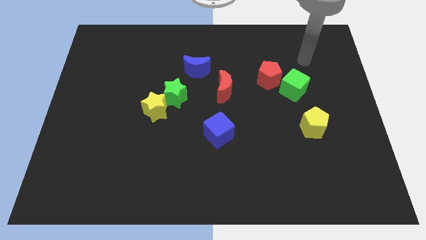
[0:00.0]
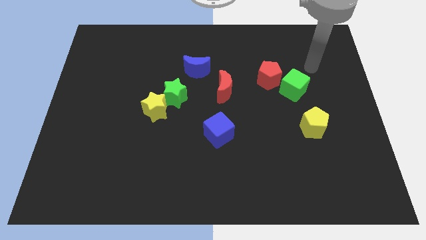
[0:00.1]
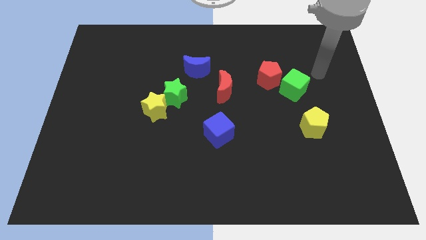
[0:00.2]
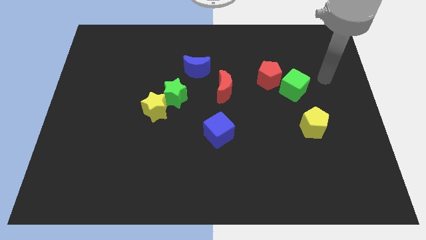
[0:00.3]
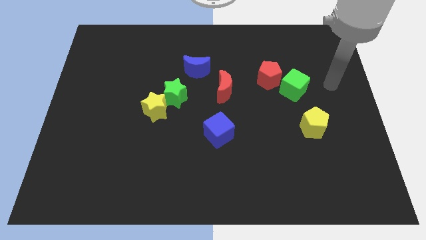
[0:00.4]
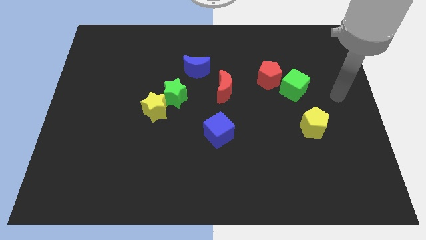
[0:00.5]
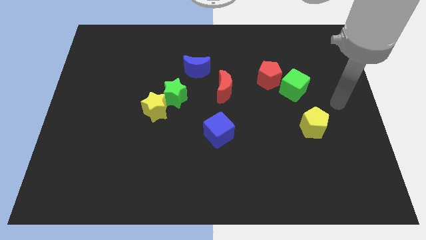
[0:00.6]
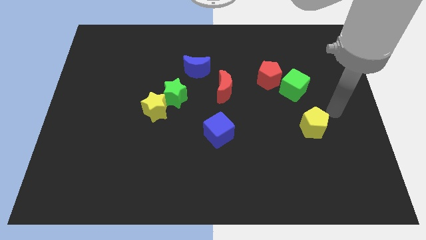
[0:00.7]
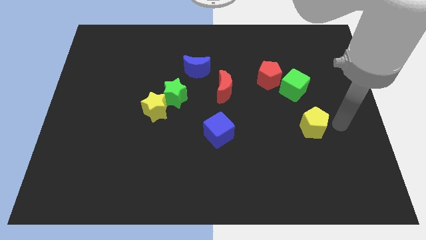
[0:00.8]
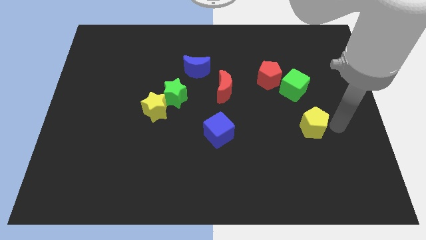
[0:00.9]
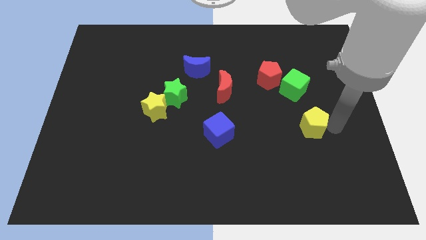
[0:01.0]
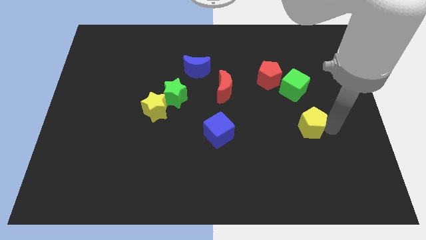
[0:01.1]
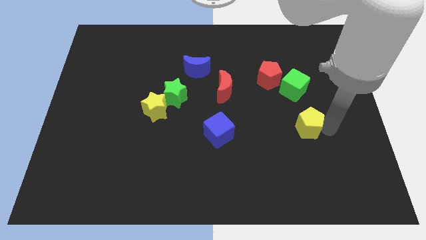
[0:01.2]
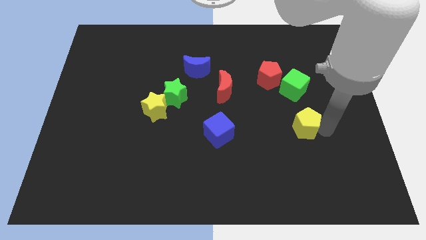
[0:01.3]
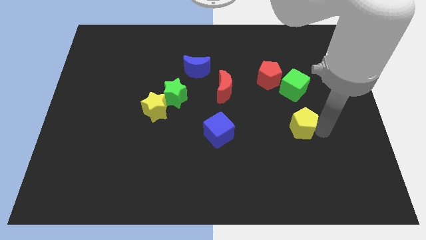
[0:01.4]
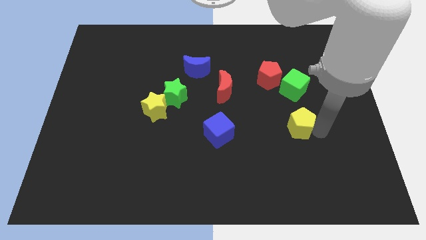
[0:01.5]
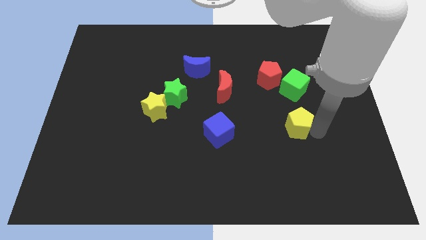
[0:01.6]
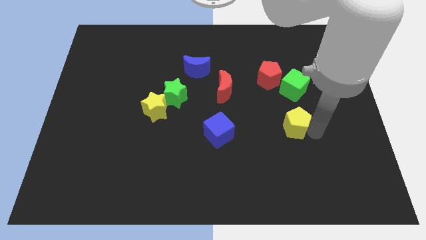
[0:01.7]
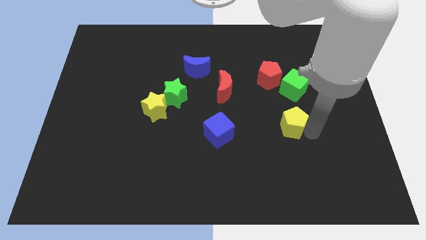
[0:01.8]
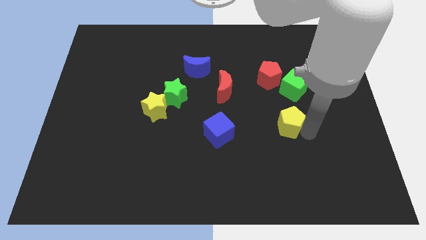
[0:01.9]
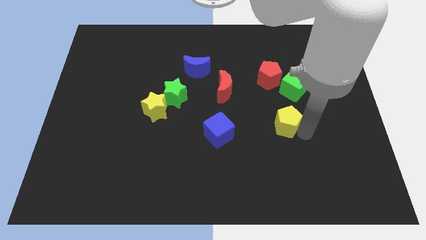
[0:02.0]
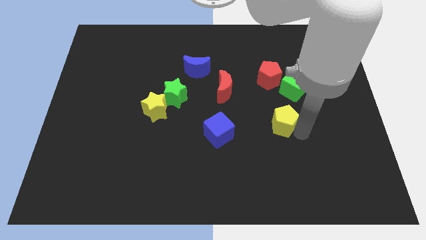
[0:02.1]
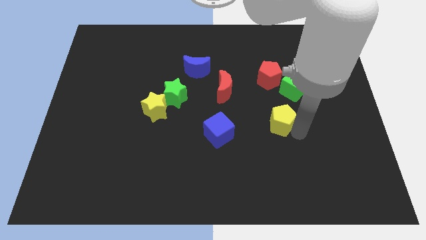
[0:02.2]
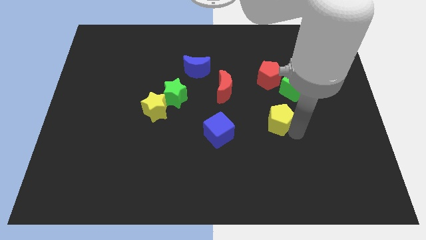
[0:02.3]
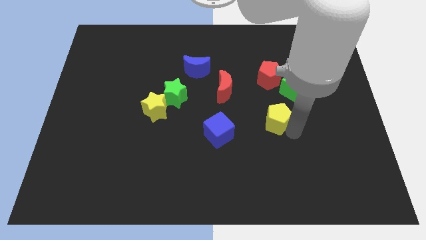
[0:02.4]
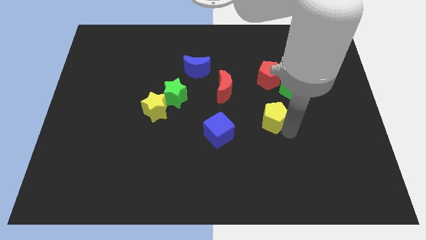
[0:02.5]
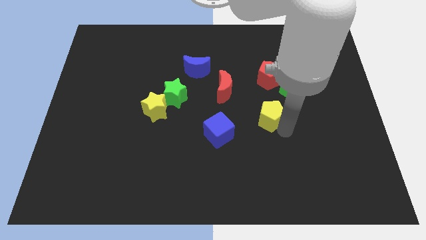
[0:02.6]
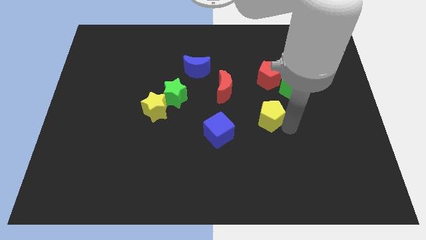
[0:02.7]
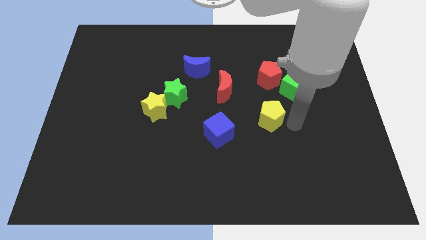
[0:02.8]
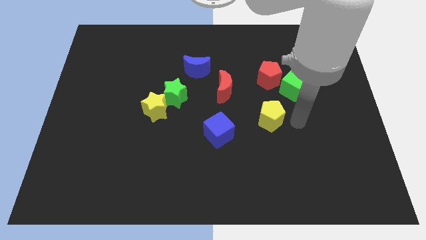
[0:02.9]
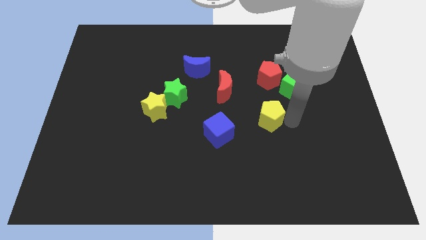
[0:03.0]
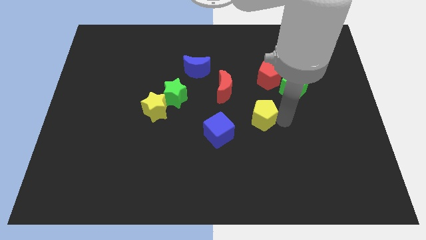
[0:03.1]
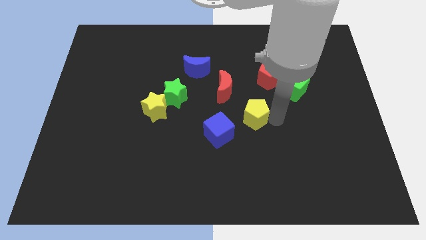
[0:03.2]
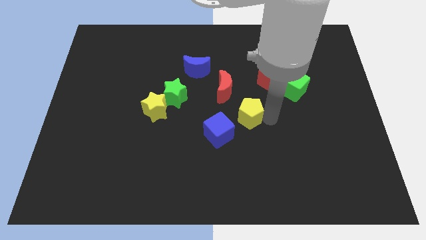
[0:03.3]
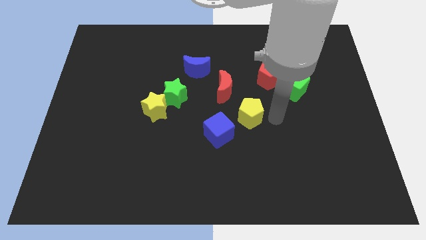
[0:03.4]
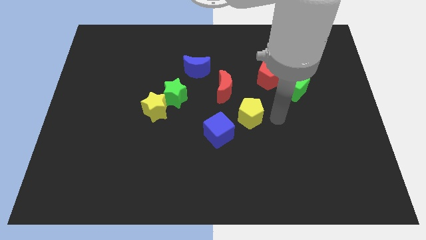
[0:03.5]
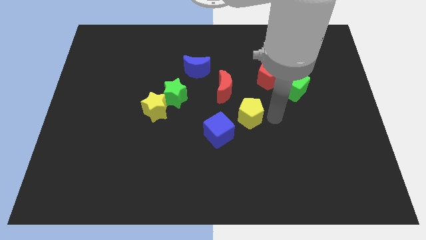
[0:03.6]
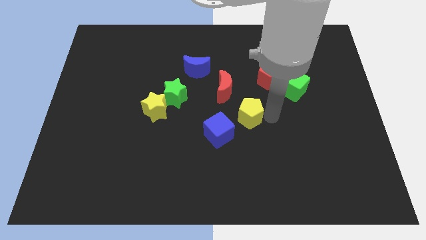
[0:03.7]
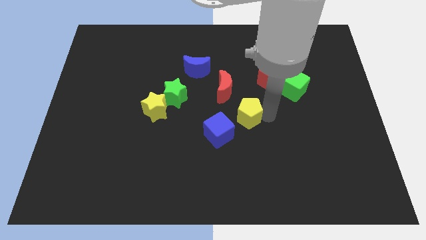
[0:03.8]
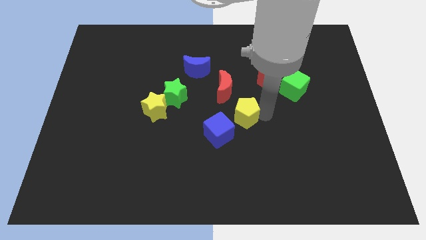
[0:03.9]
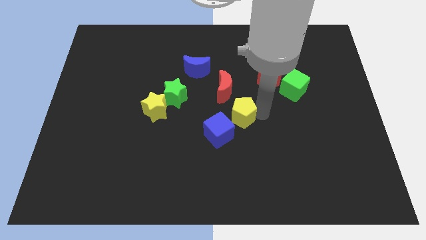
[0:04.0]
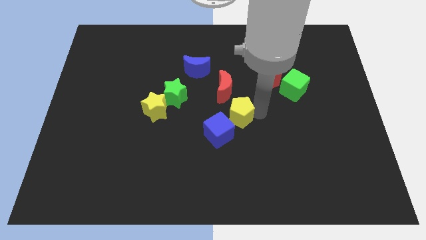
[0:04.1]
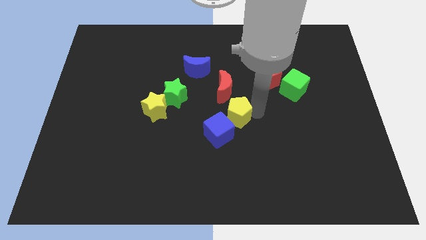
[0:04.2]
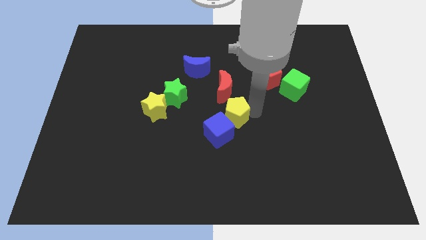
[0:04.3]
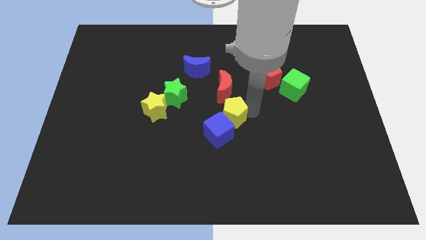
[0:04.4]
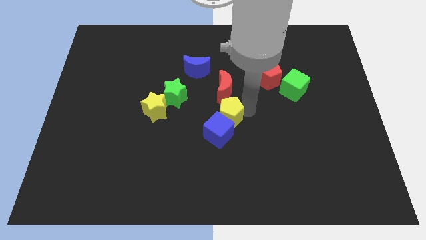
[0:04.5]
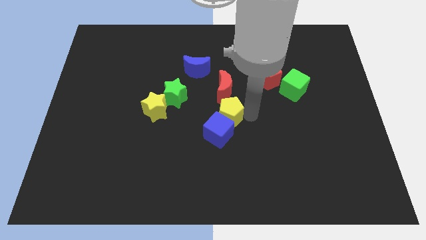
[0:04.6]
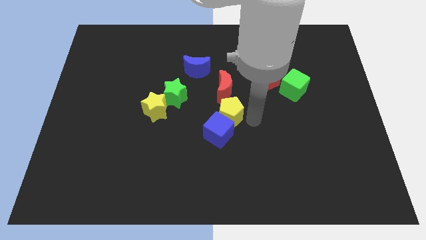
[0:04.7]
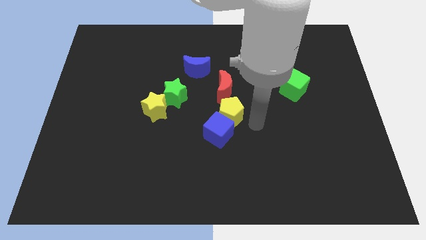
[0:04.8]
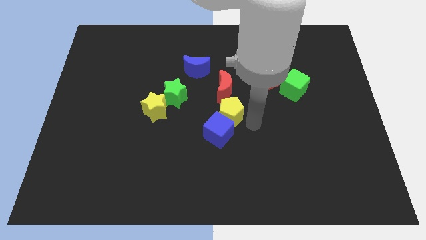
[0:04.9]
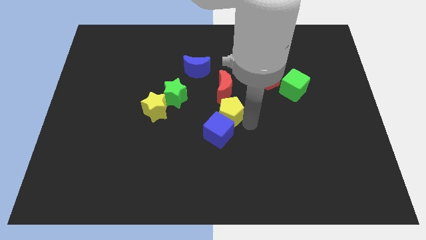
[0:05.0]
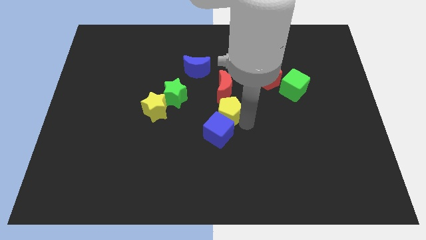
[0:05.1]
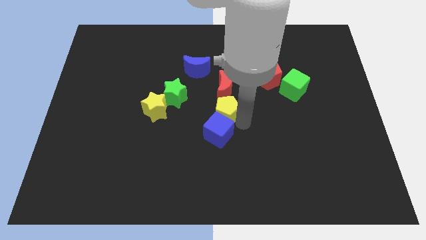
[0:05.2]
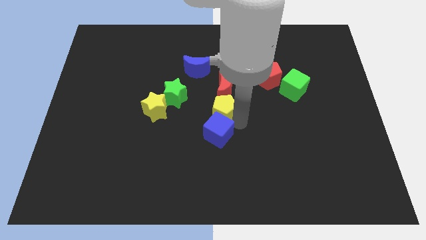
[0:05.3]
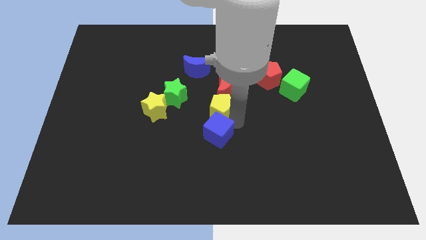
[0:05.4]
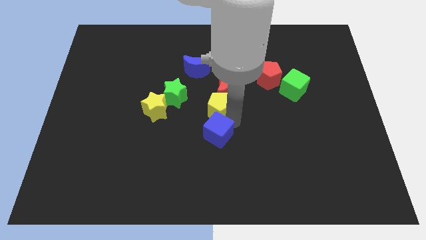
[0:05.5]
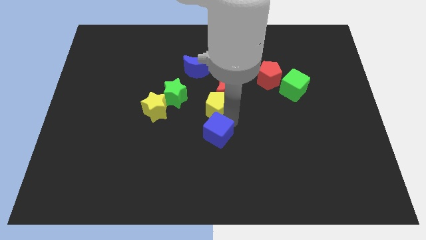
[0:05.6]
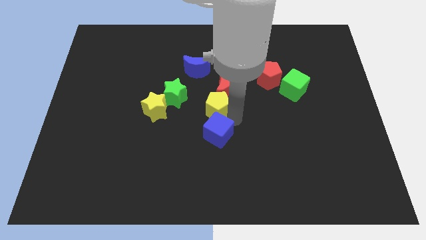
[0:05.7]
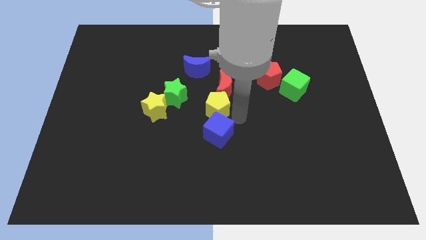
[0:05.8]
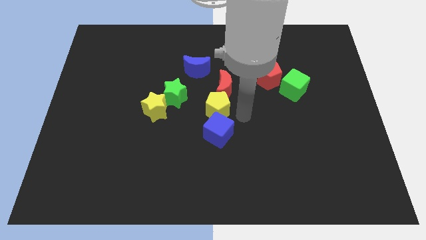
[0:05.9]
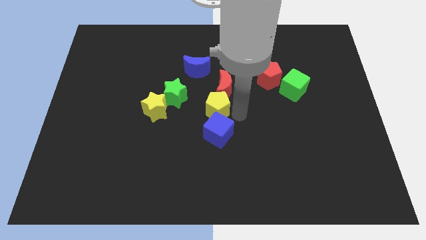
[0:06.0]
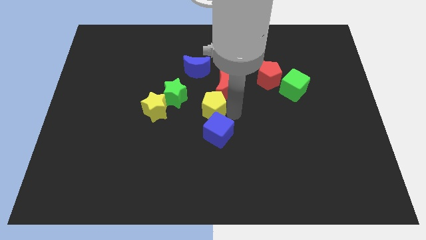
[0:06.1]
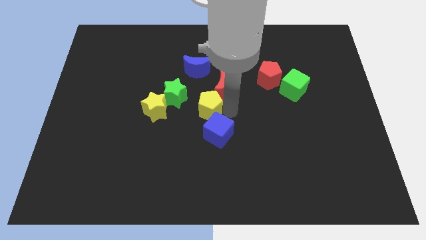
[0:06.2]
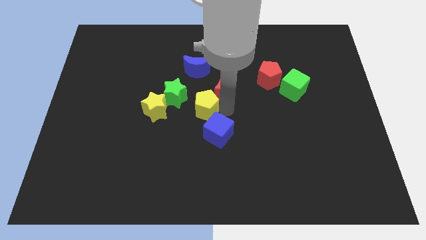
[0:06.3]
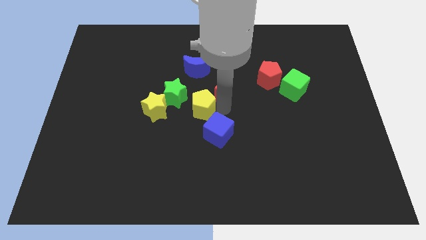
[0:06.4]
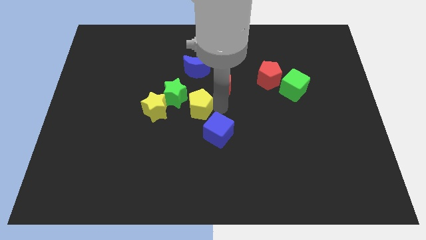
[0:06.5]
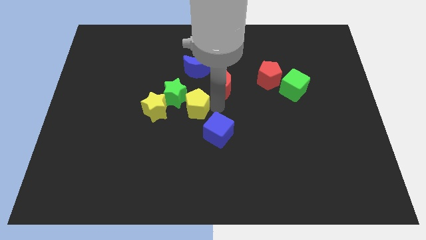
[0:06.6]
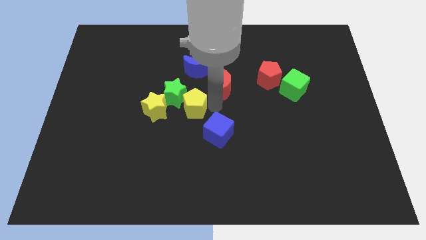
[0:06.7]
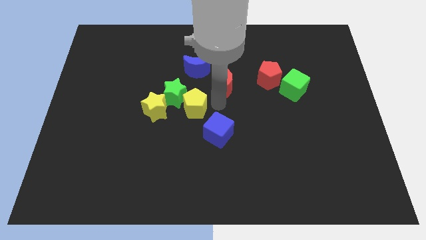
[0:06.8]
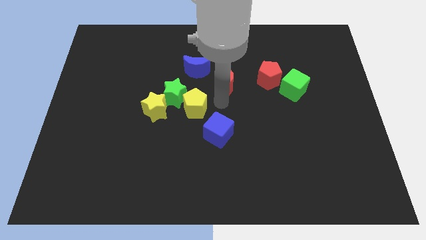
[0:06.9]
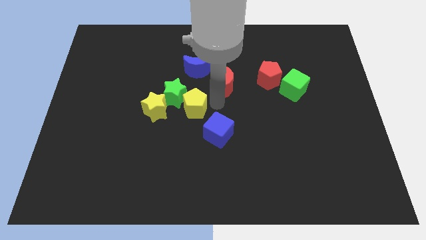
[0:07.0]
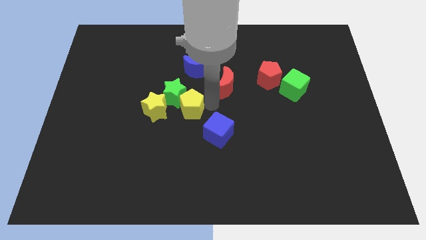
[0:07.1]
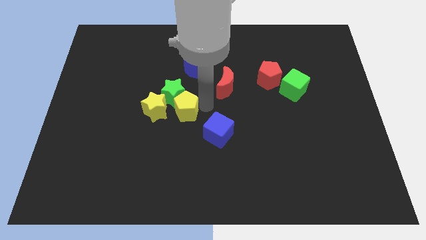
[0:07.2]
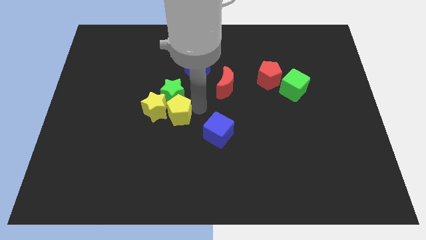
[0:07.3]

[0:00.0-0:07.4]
slide the yellow pentagon towards the yellow star
